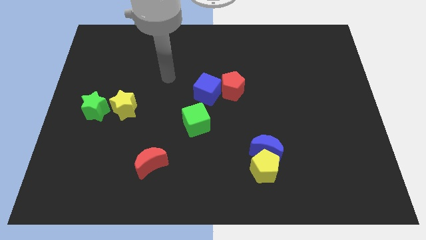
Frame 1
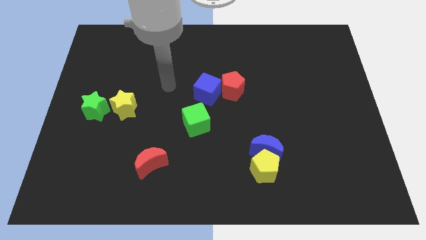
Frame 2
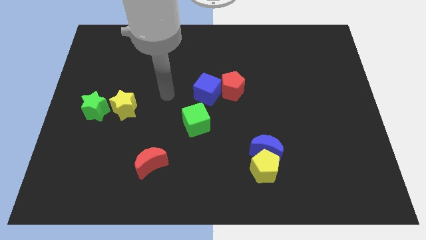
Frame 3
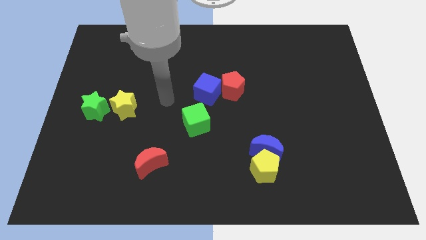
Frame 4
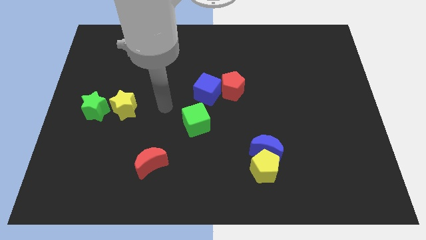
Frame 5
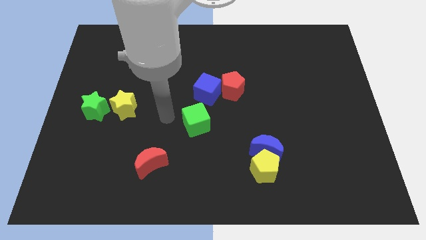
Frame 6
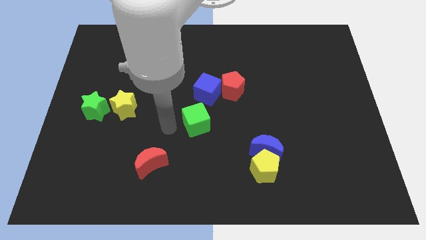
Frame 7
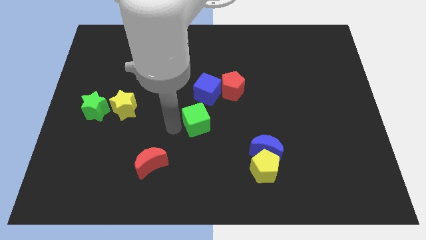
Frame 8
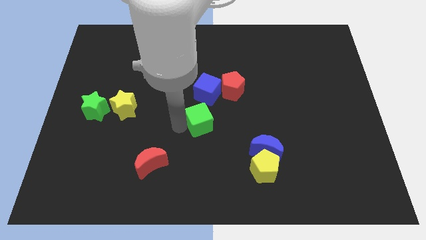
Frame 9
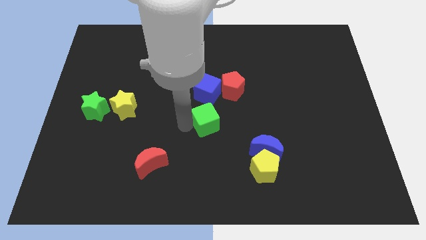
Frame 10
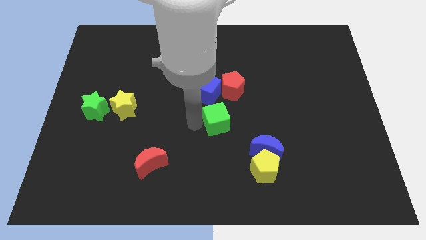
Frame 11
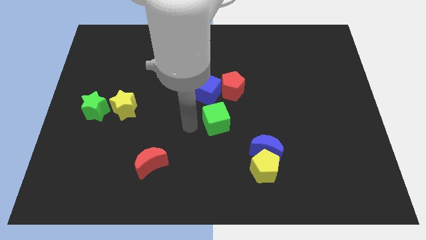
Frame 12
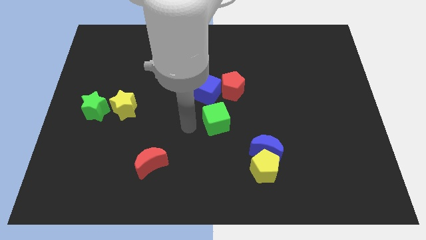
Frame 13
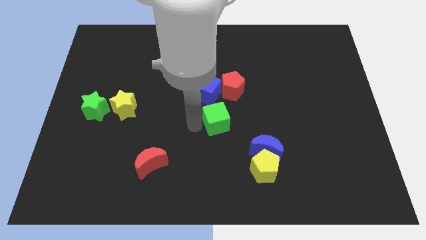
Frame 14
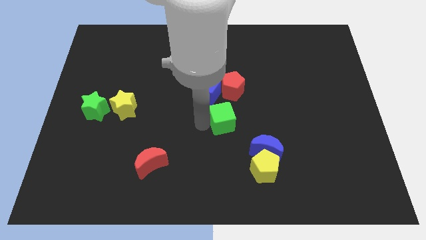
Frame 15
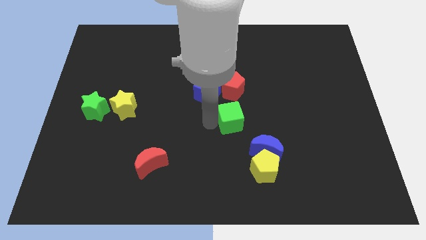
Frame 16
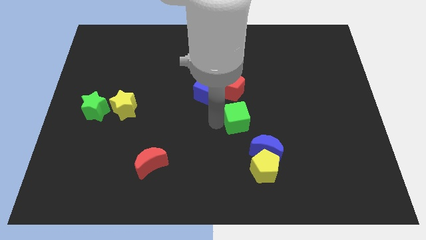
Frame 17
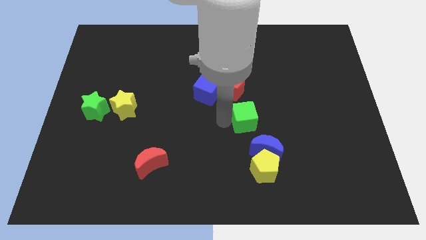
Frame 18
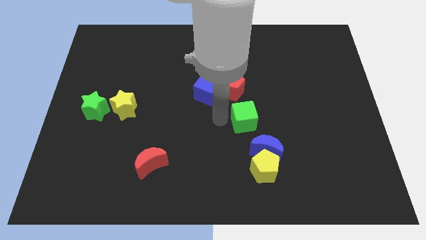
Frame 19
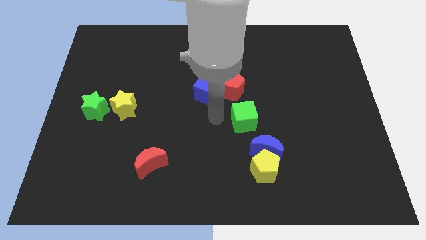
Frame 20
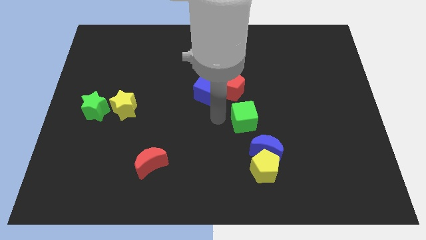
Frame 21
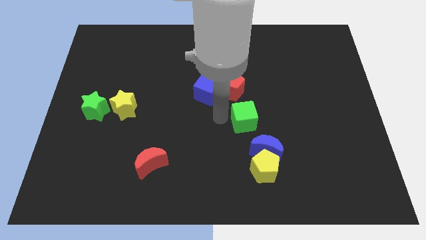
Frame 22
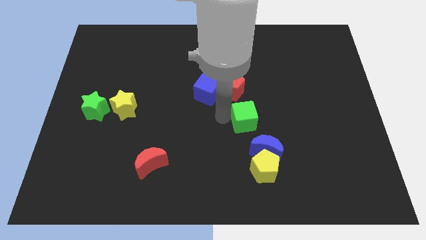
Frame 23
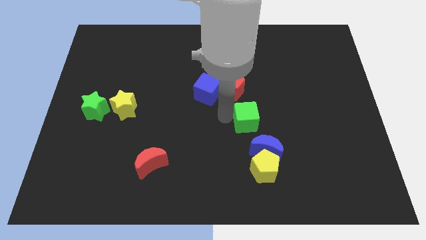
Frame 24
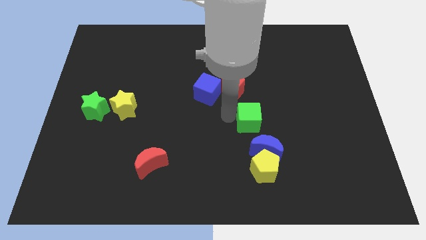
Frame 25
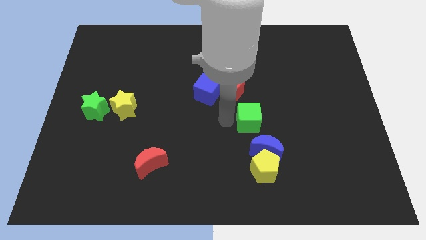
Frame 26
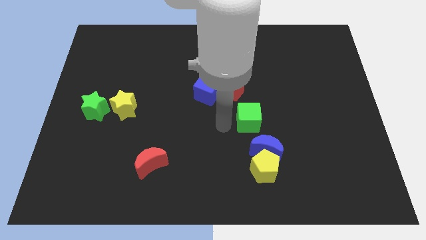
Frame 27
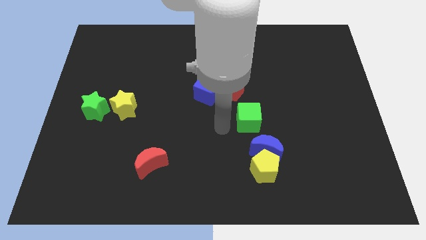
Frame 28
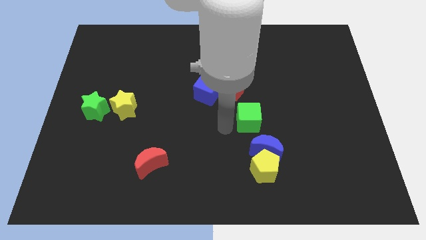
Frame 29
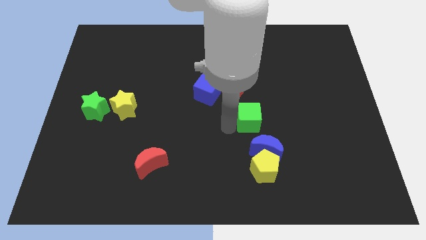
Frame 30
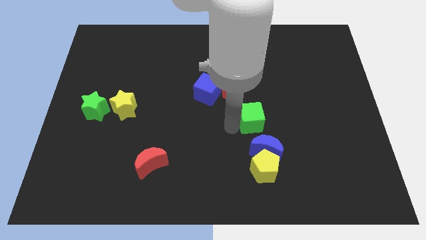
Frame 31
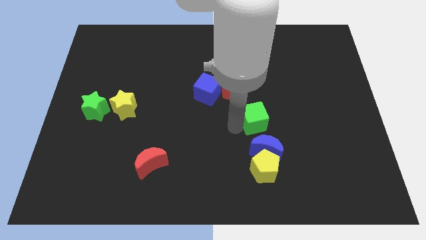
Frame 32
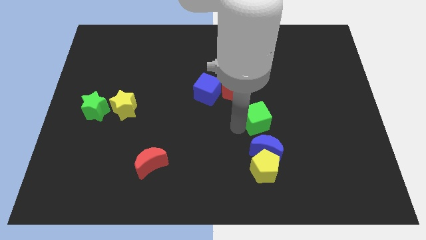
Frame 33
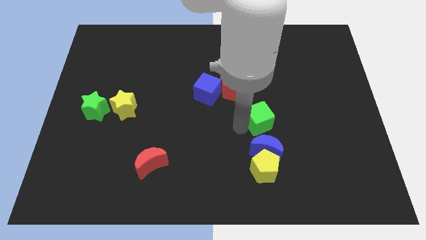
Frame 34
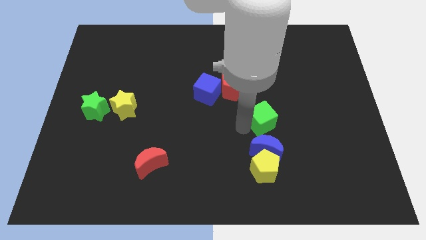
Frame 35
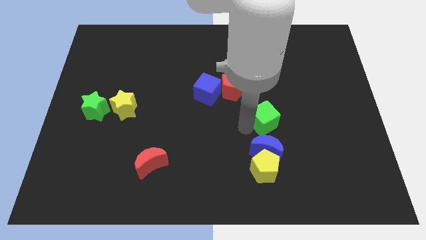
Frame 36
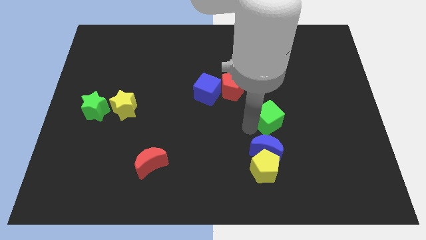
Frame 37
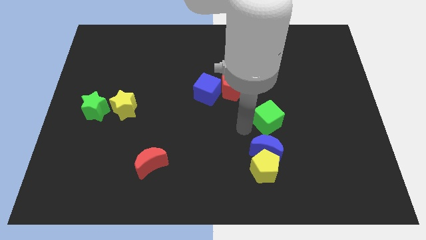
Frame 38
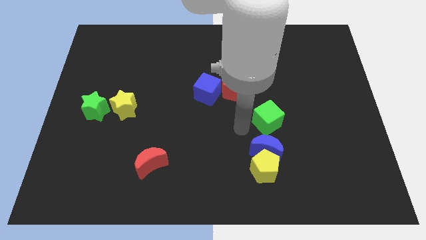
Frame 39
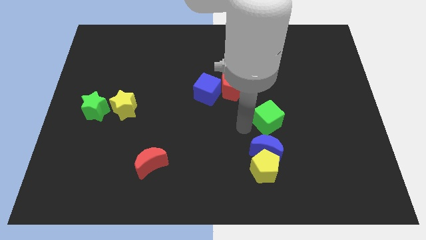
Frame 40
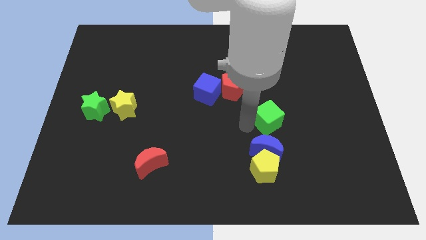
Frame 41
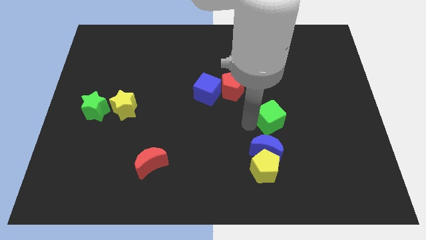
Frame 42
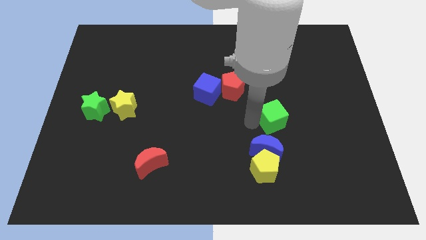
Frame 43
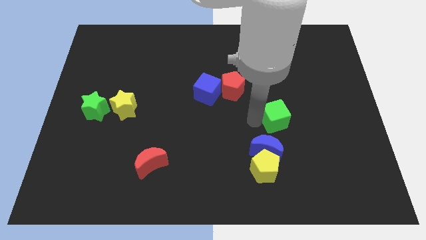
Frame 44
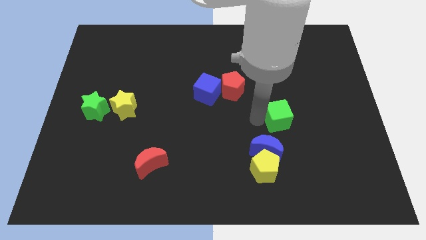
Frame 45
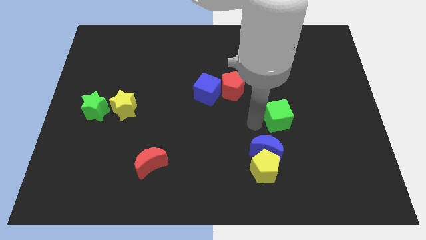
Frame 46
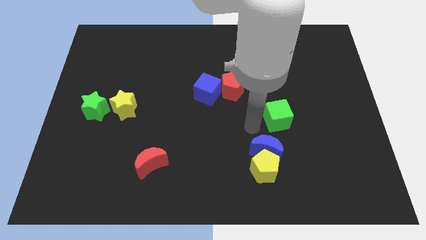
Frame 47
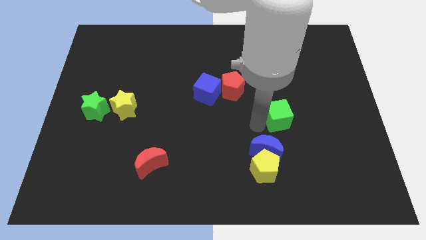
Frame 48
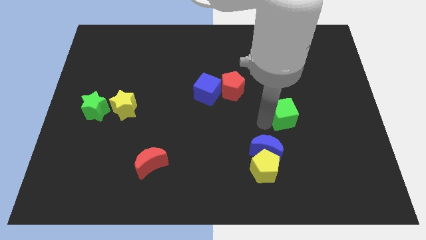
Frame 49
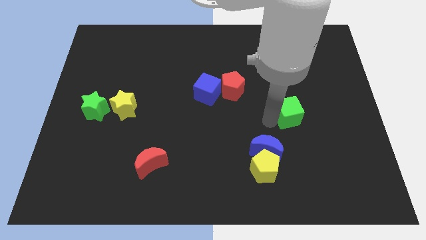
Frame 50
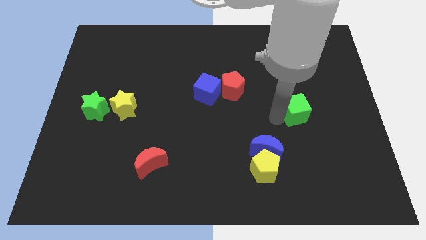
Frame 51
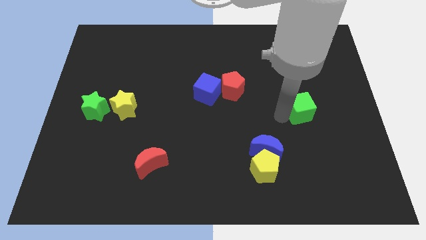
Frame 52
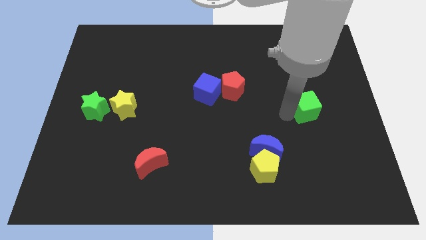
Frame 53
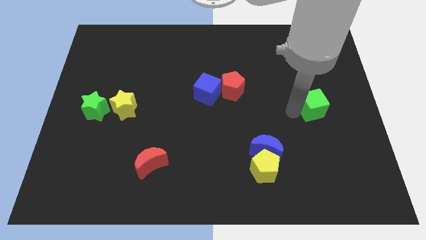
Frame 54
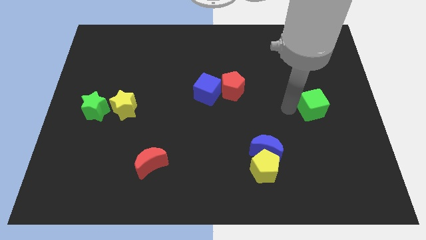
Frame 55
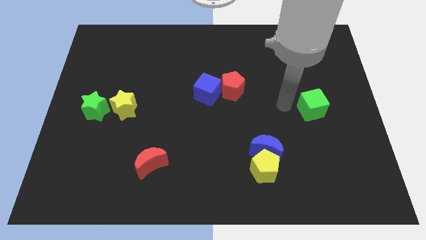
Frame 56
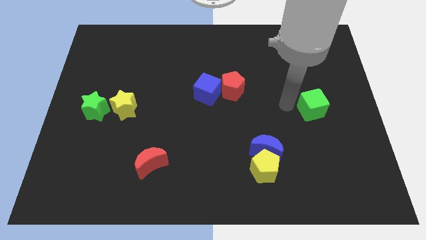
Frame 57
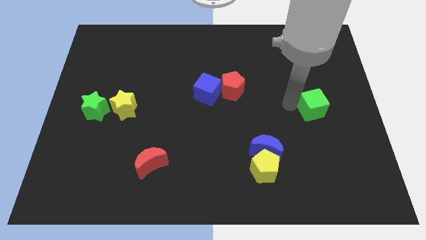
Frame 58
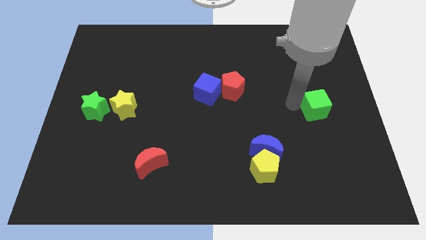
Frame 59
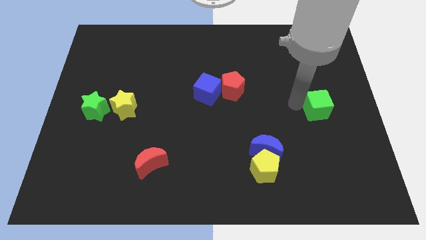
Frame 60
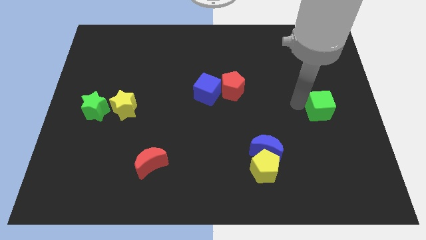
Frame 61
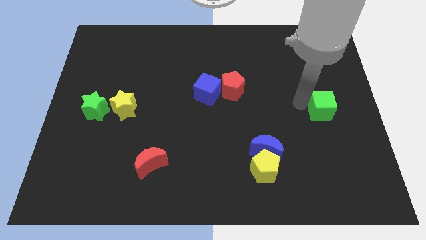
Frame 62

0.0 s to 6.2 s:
push the green cube to the right side

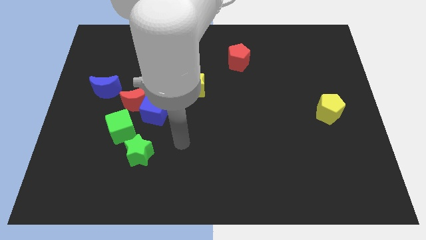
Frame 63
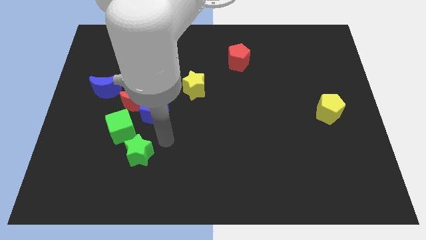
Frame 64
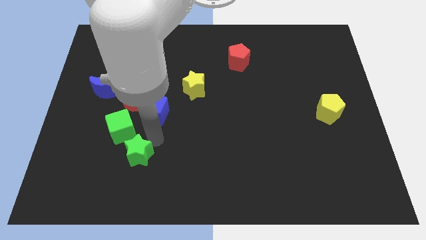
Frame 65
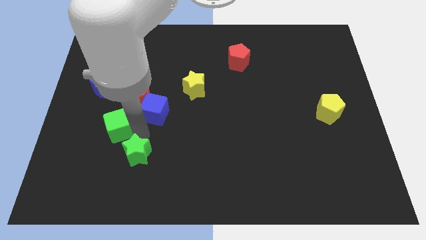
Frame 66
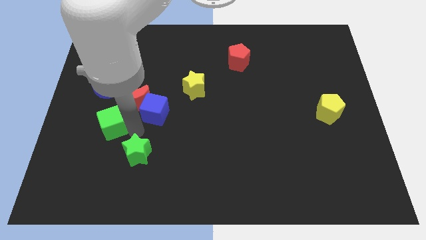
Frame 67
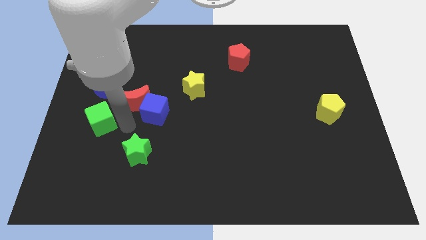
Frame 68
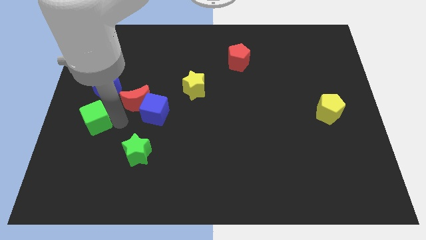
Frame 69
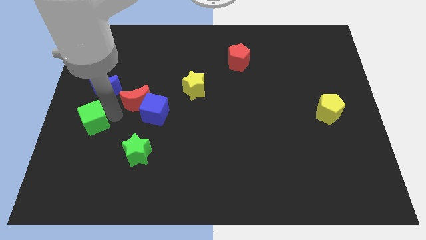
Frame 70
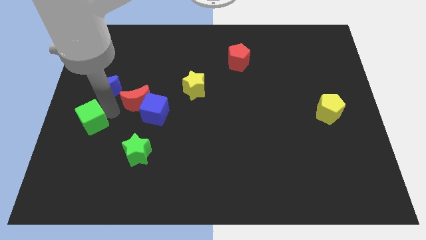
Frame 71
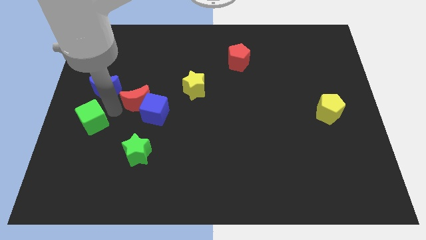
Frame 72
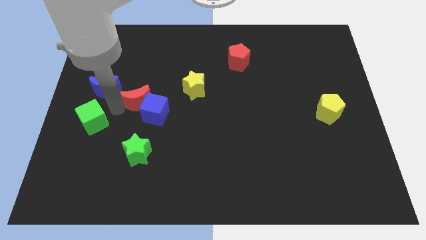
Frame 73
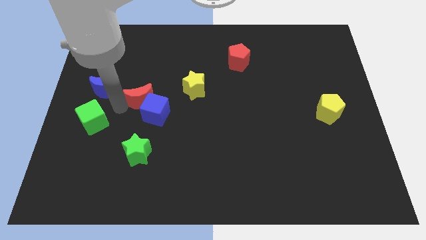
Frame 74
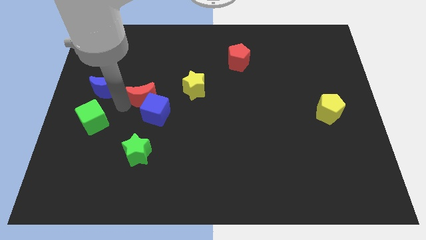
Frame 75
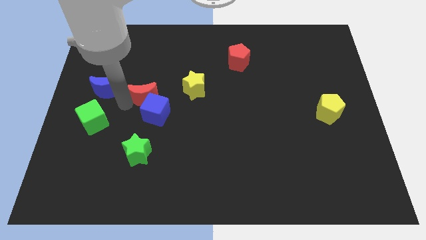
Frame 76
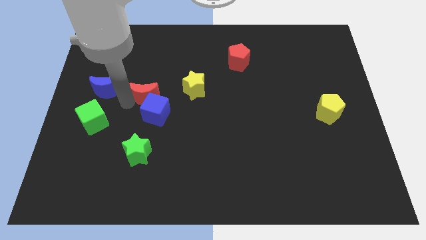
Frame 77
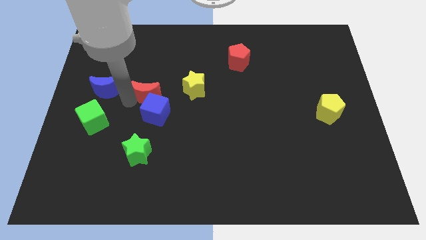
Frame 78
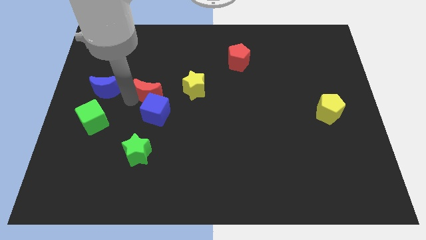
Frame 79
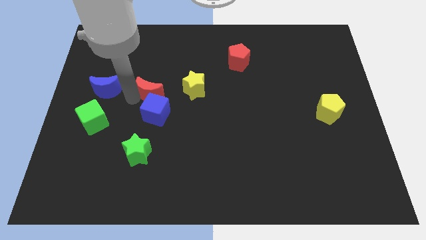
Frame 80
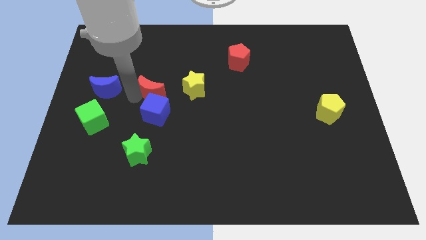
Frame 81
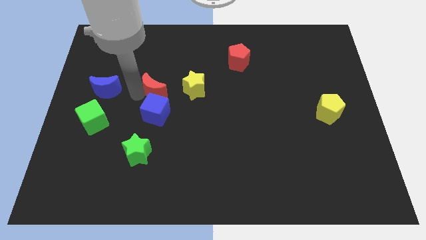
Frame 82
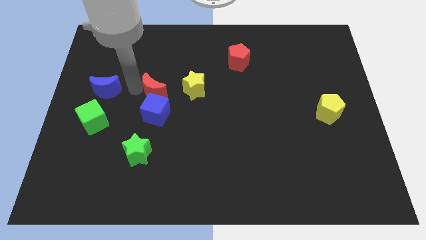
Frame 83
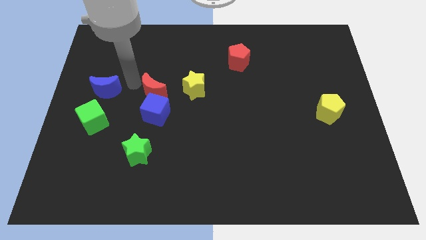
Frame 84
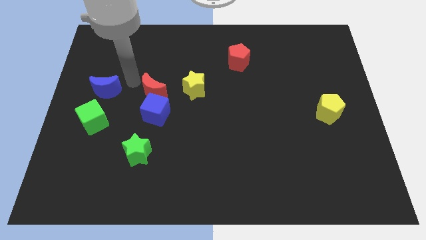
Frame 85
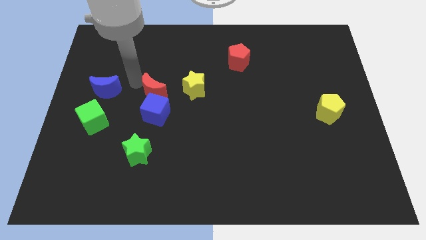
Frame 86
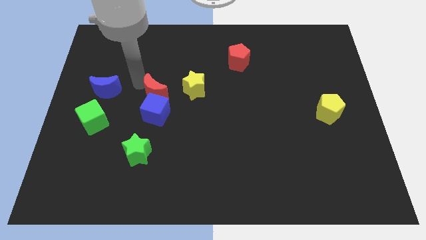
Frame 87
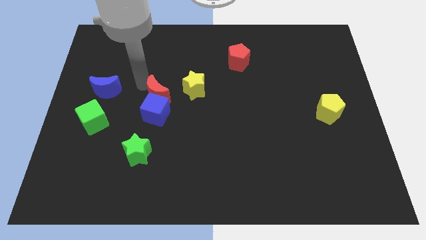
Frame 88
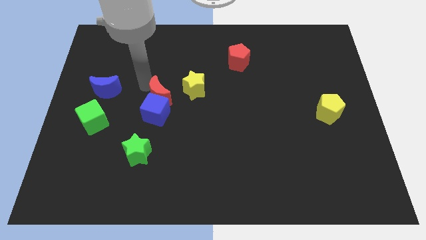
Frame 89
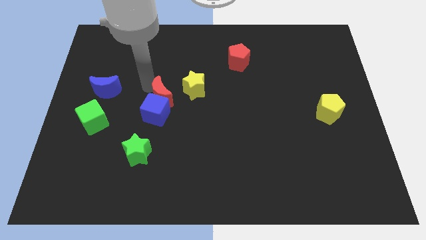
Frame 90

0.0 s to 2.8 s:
put the red moon to the middle
